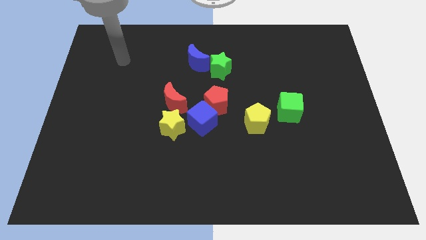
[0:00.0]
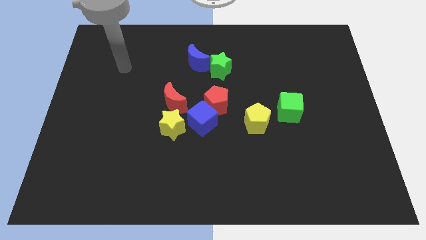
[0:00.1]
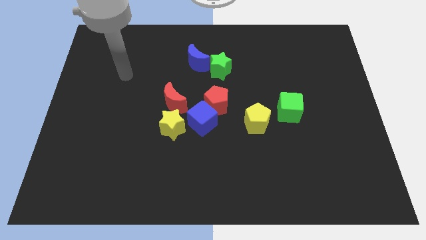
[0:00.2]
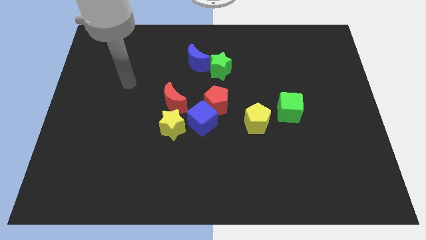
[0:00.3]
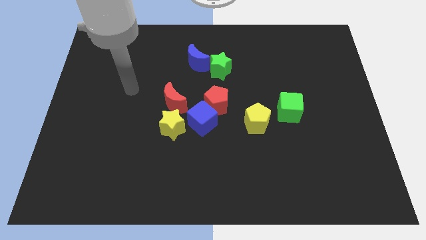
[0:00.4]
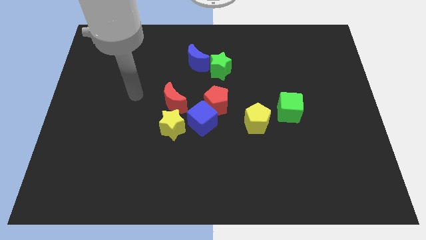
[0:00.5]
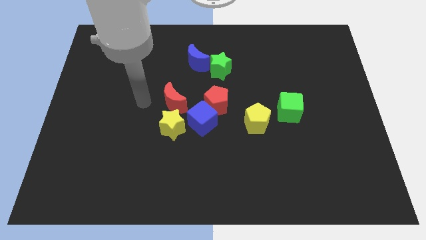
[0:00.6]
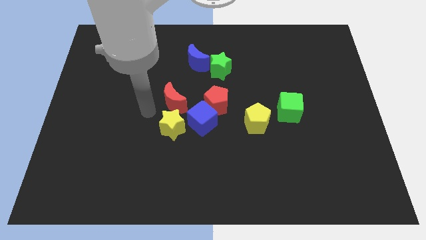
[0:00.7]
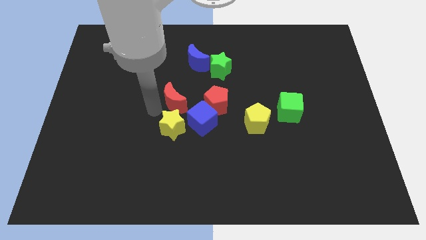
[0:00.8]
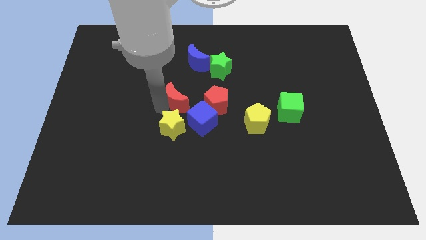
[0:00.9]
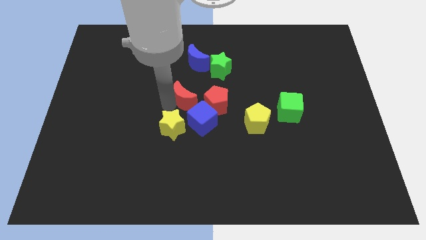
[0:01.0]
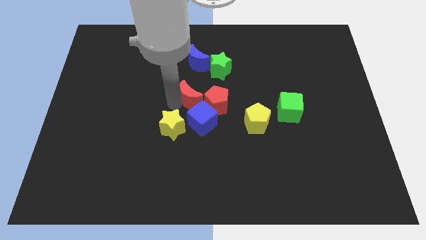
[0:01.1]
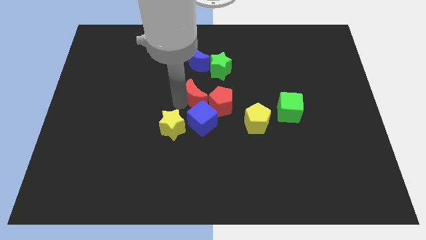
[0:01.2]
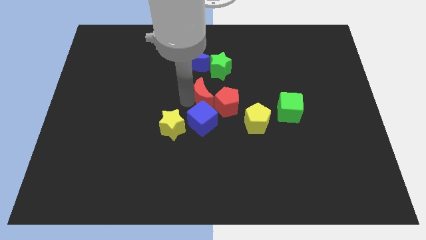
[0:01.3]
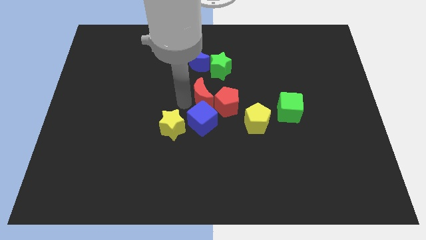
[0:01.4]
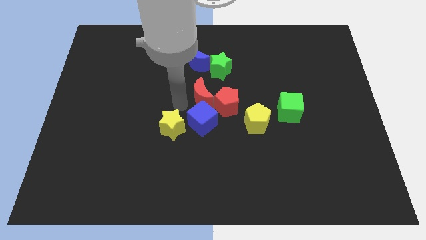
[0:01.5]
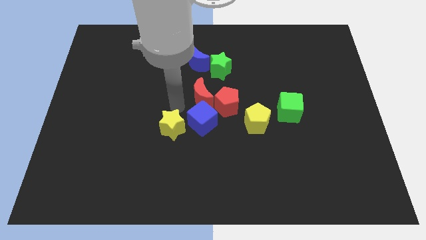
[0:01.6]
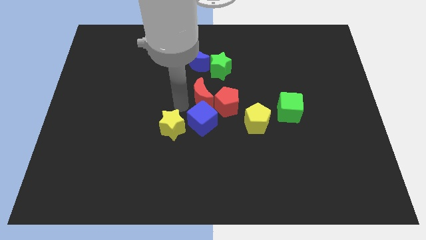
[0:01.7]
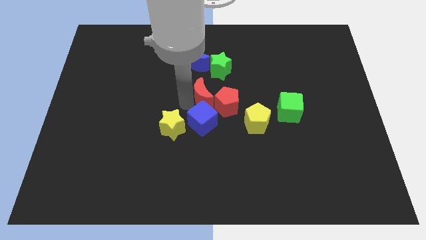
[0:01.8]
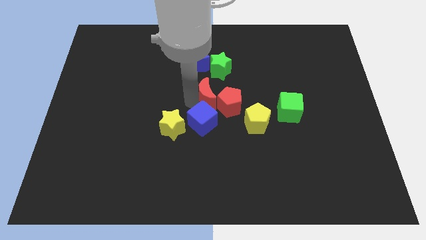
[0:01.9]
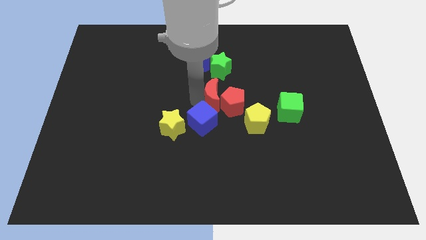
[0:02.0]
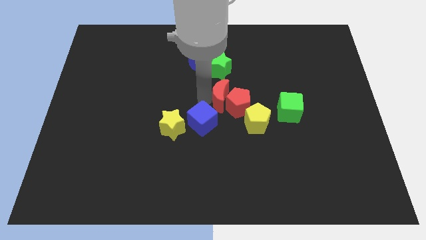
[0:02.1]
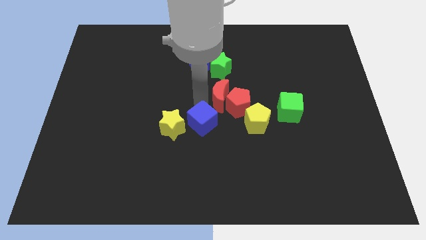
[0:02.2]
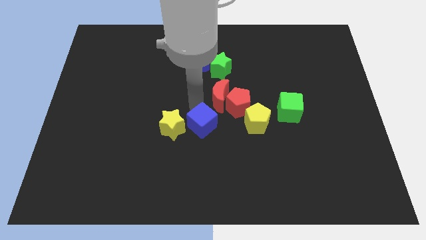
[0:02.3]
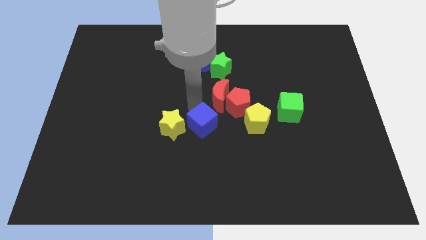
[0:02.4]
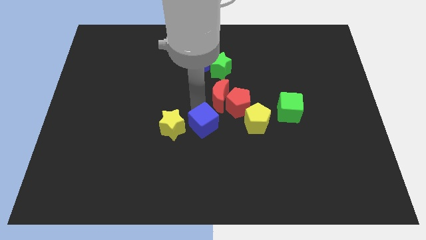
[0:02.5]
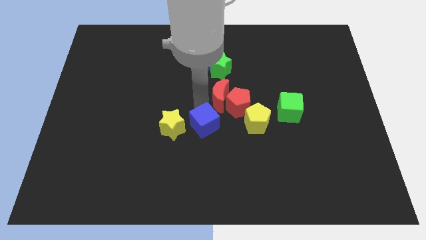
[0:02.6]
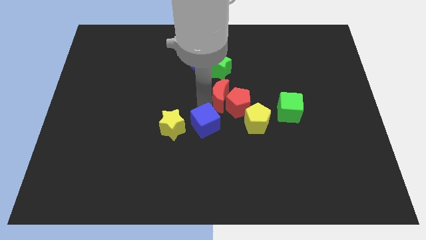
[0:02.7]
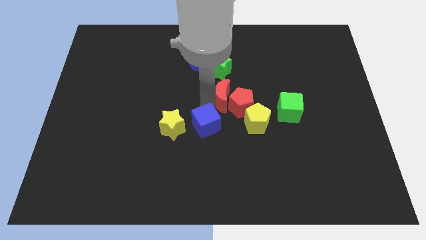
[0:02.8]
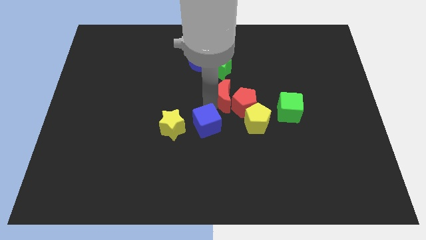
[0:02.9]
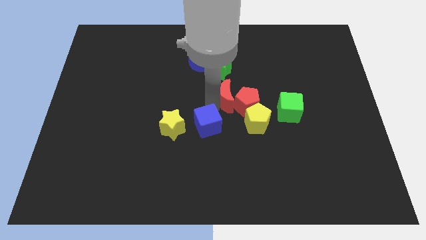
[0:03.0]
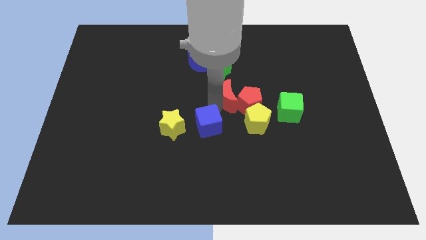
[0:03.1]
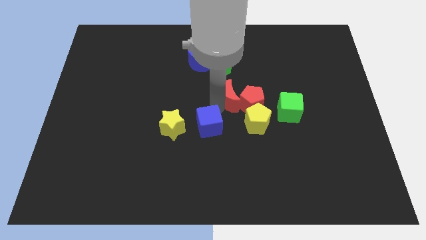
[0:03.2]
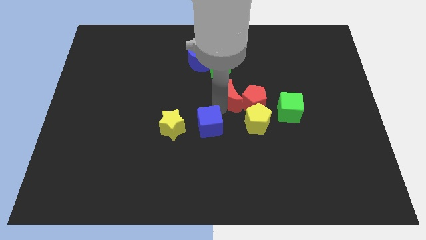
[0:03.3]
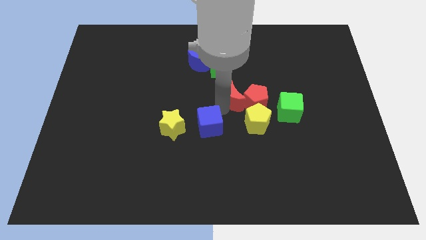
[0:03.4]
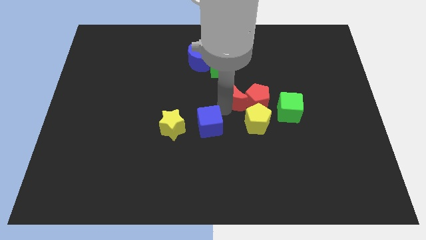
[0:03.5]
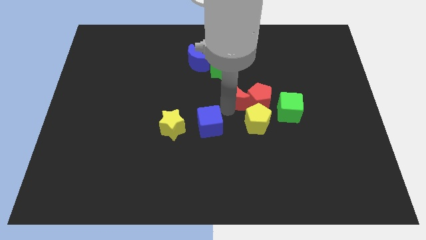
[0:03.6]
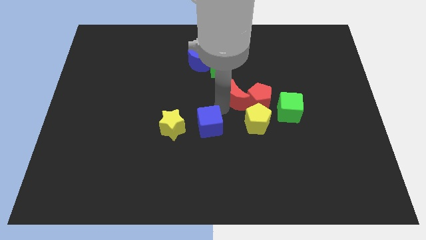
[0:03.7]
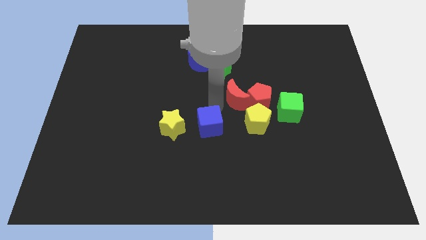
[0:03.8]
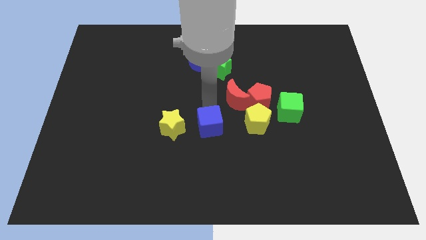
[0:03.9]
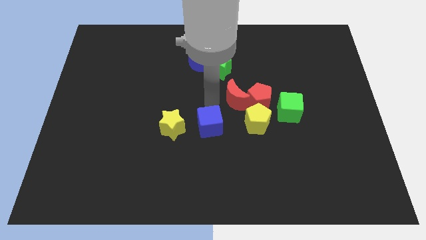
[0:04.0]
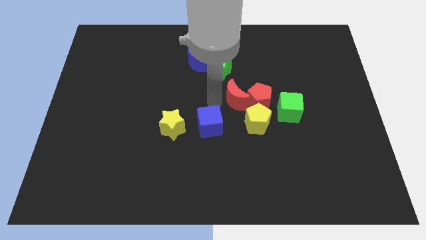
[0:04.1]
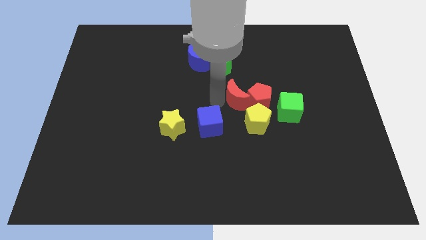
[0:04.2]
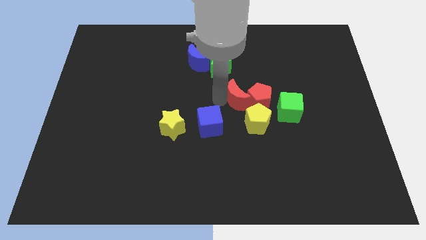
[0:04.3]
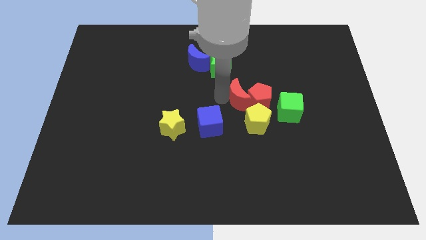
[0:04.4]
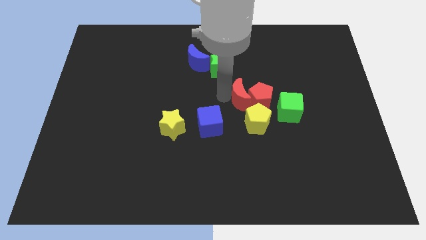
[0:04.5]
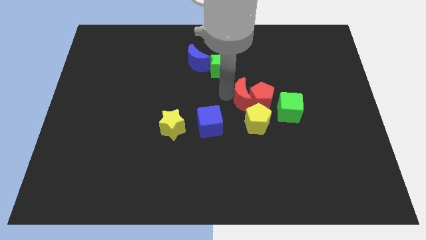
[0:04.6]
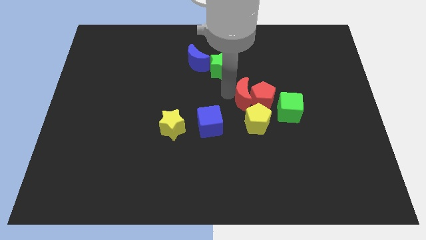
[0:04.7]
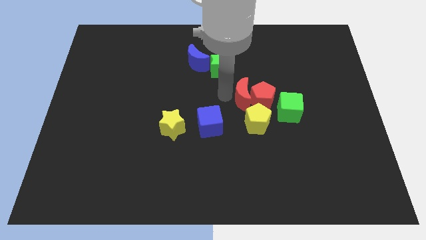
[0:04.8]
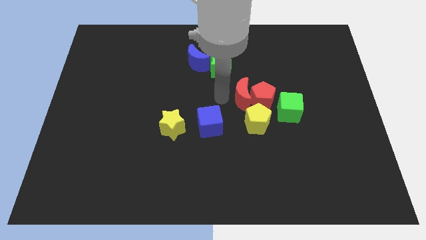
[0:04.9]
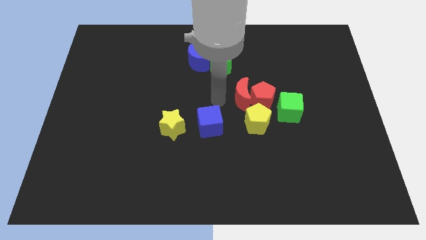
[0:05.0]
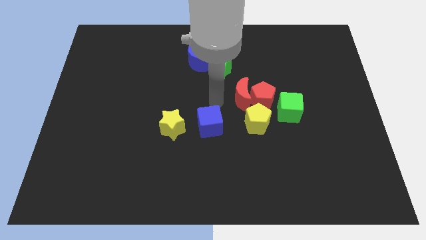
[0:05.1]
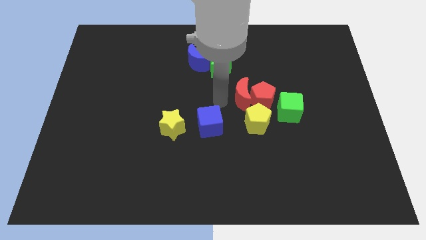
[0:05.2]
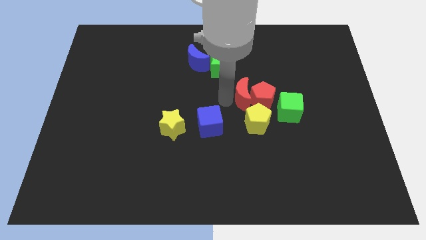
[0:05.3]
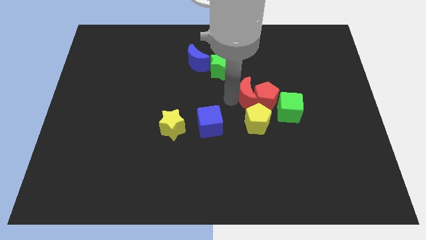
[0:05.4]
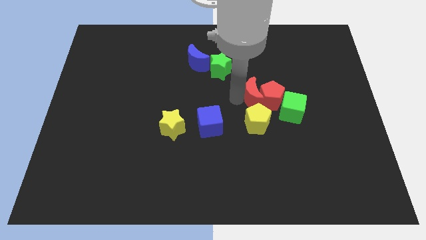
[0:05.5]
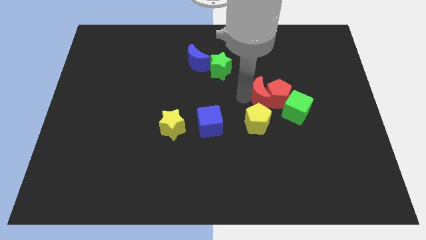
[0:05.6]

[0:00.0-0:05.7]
move the red moon right

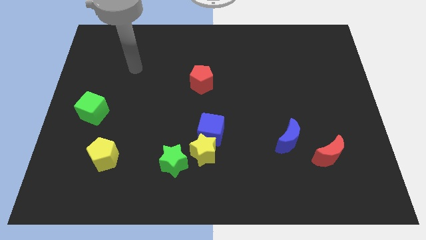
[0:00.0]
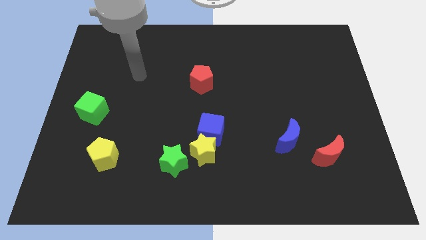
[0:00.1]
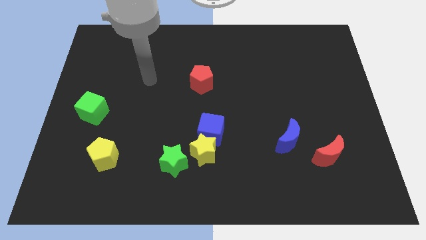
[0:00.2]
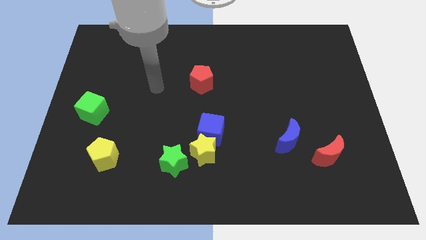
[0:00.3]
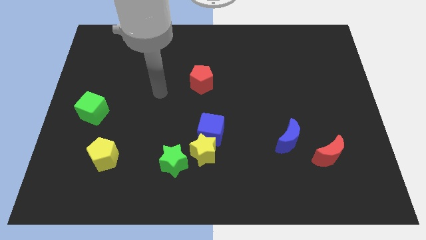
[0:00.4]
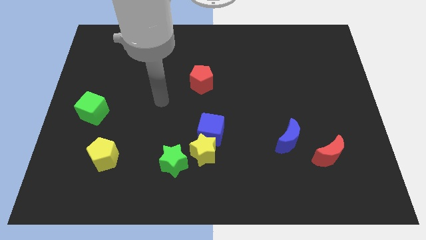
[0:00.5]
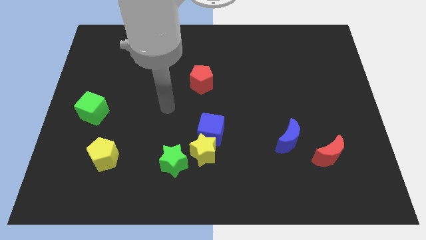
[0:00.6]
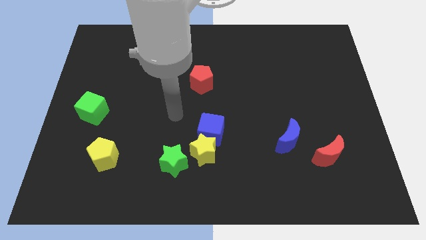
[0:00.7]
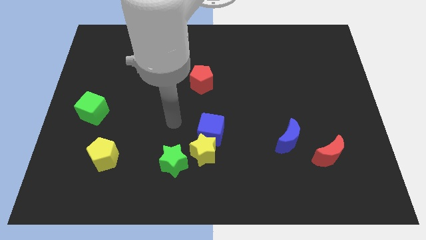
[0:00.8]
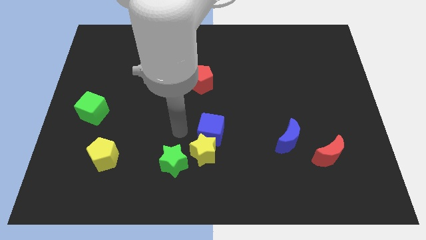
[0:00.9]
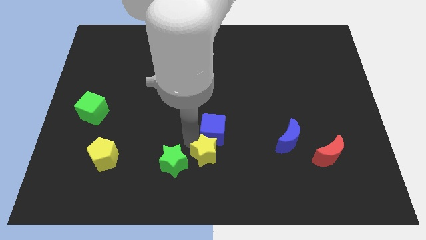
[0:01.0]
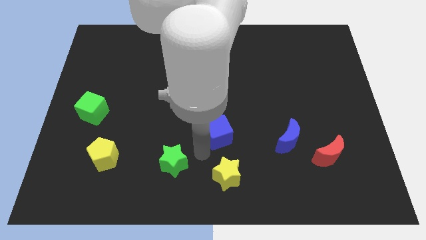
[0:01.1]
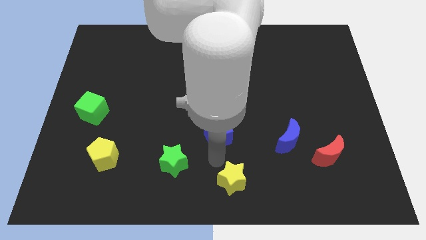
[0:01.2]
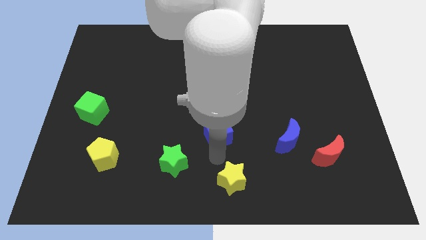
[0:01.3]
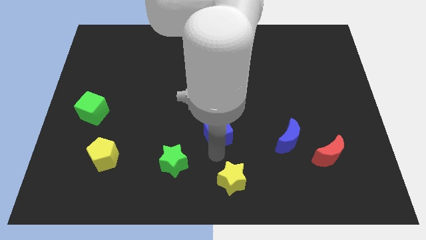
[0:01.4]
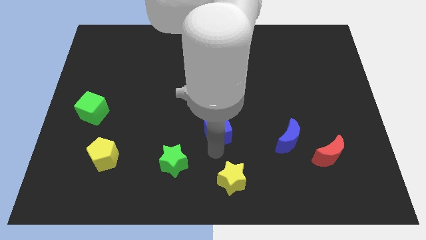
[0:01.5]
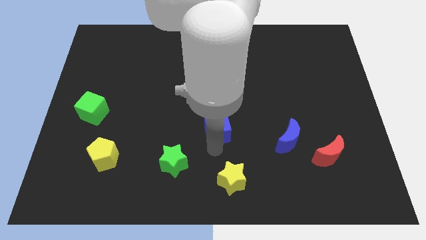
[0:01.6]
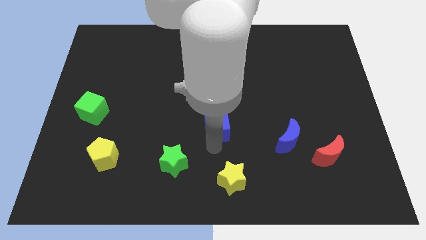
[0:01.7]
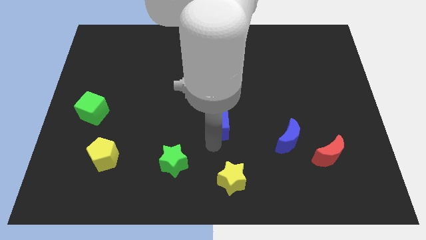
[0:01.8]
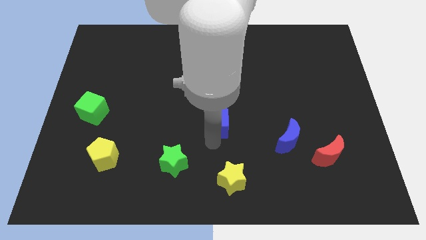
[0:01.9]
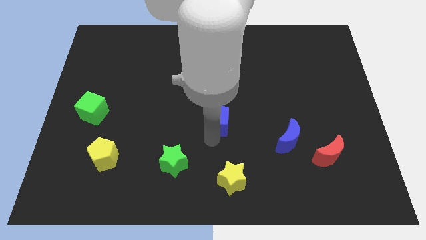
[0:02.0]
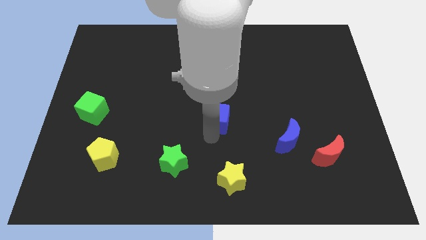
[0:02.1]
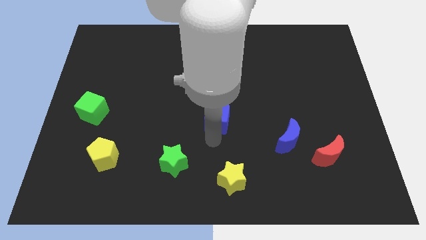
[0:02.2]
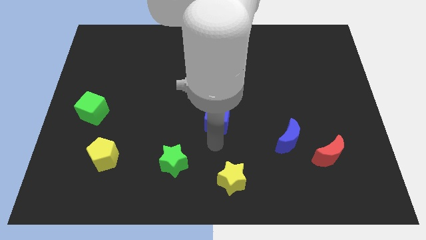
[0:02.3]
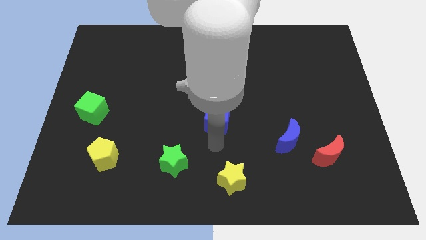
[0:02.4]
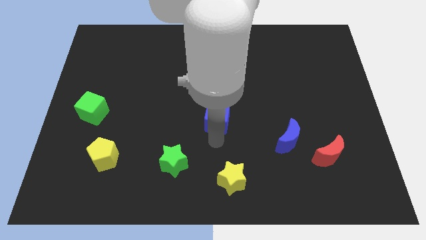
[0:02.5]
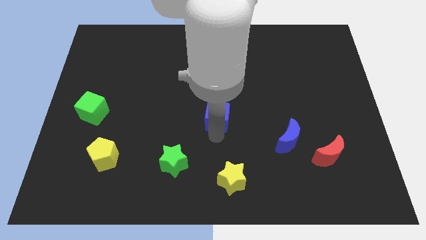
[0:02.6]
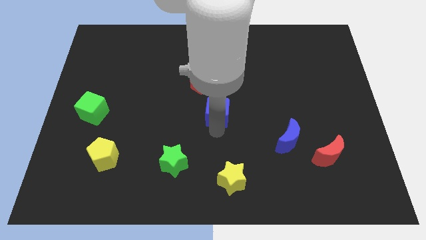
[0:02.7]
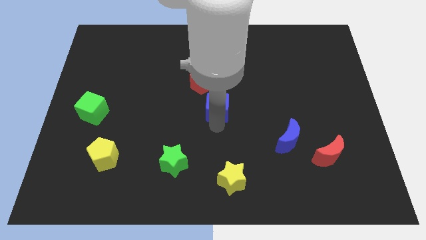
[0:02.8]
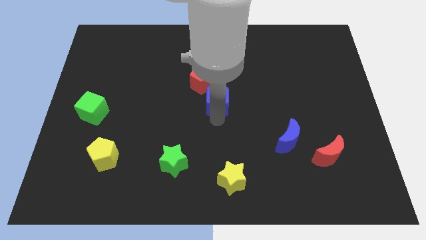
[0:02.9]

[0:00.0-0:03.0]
push the blue cube a bit upwards
